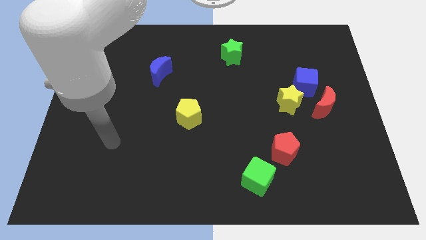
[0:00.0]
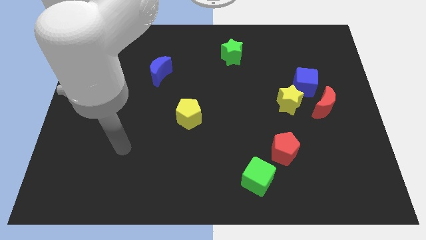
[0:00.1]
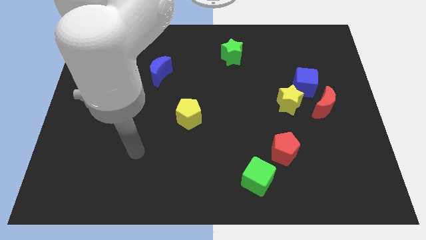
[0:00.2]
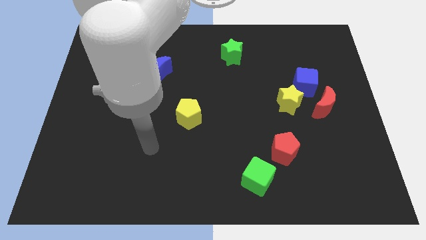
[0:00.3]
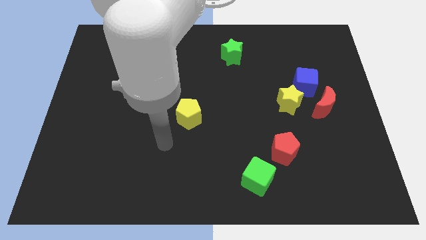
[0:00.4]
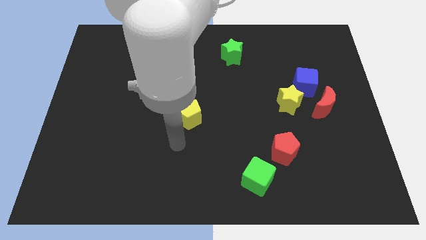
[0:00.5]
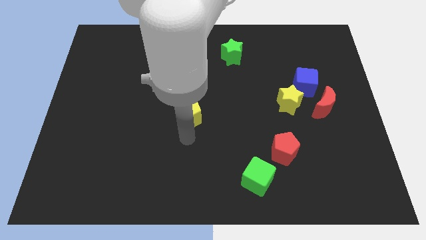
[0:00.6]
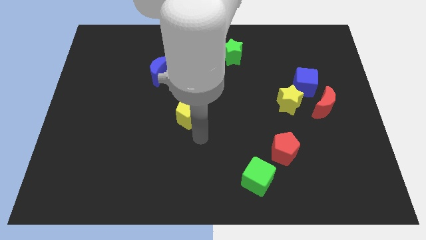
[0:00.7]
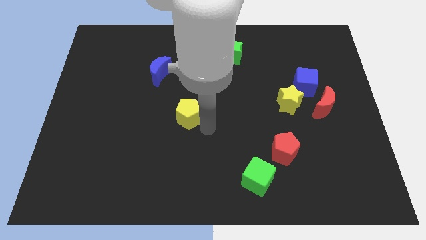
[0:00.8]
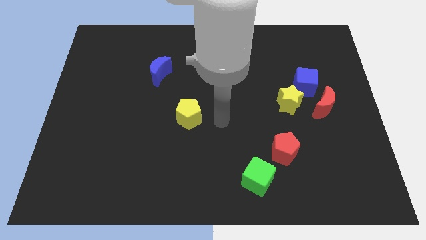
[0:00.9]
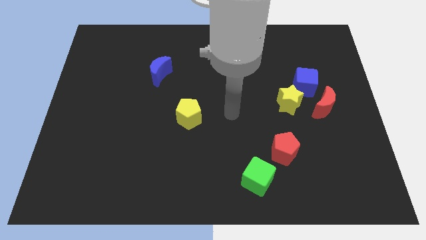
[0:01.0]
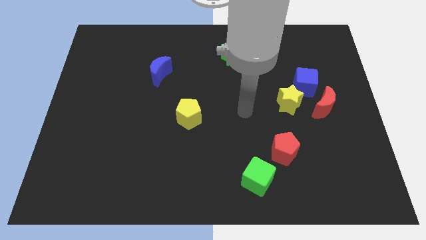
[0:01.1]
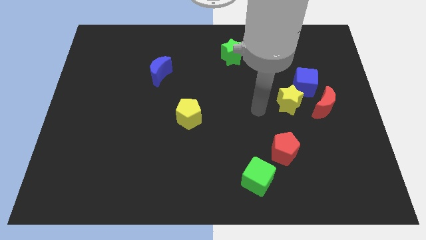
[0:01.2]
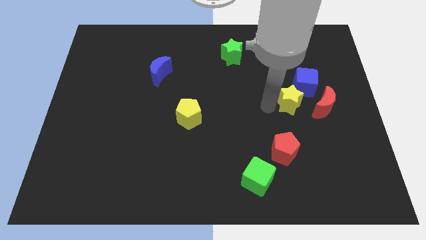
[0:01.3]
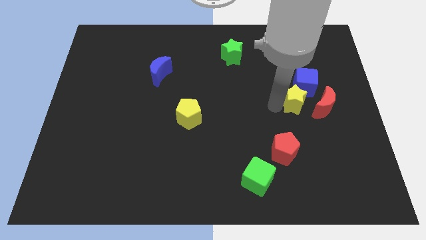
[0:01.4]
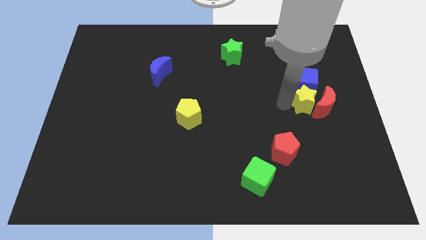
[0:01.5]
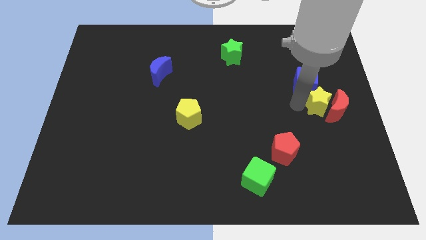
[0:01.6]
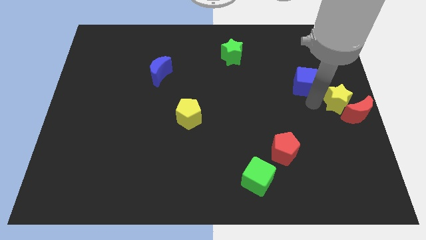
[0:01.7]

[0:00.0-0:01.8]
separate the blue cube from the yellow star and red moon

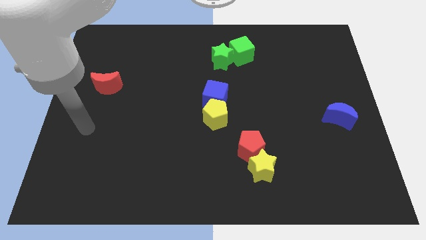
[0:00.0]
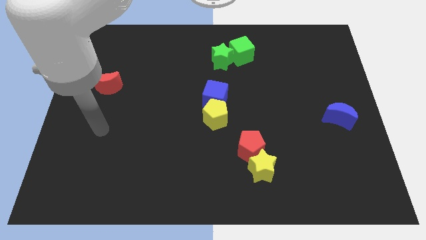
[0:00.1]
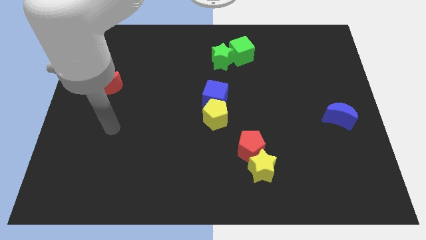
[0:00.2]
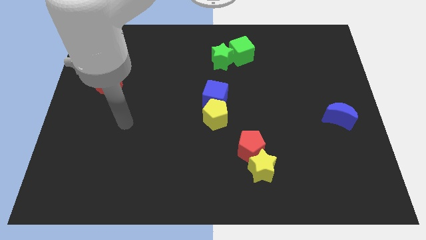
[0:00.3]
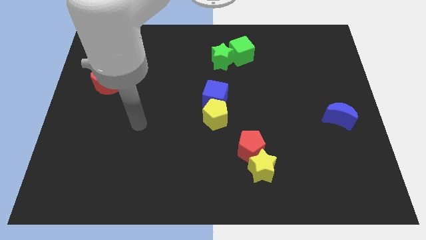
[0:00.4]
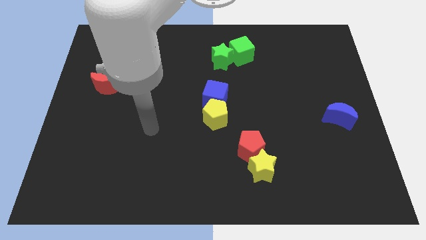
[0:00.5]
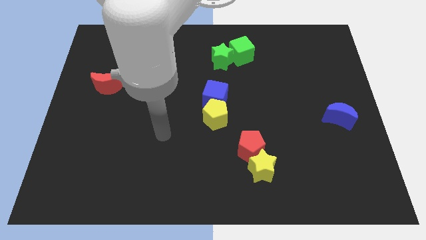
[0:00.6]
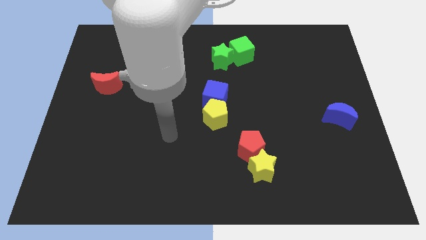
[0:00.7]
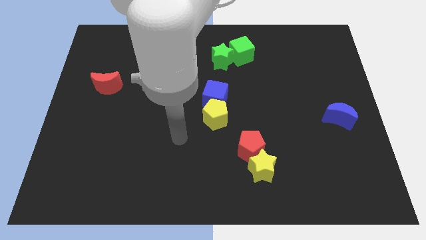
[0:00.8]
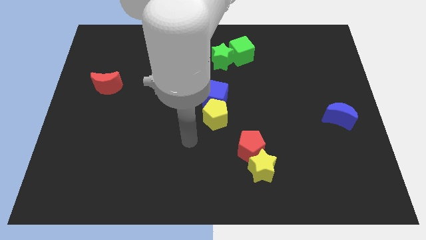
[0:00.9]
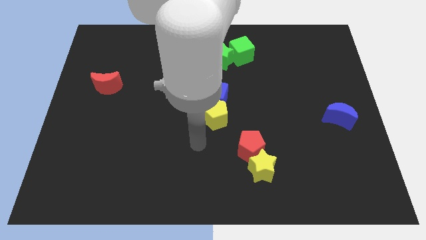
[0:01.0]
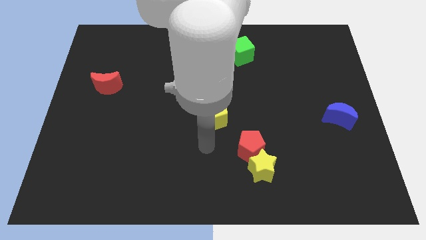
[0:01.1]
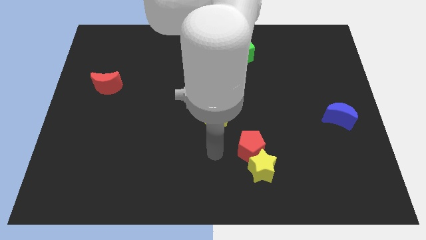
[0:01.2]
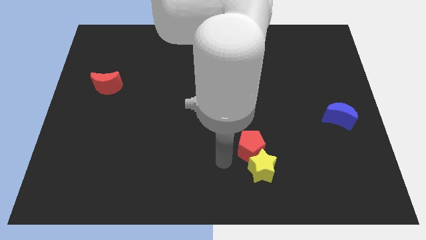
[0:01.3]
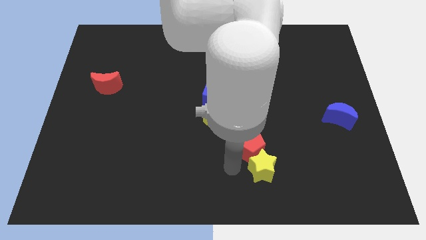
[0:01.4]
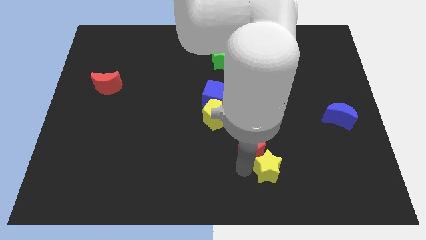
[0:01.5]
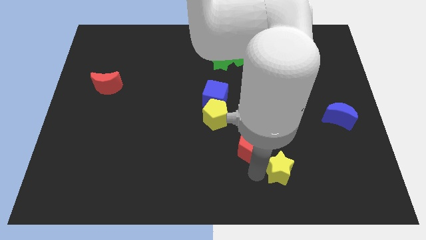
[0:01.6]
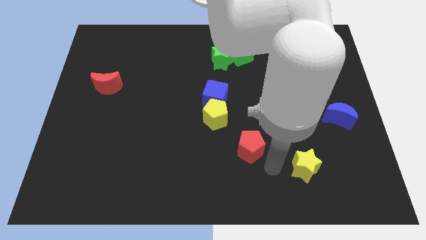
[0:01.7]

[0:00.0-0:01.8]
move the red pentagon away from the yellow star

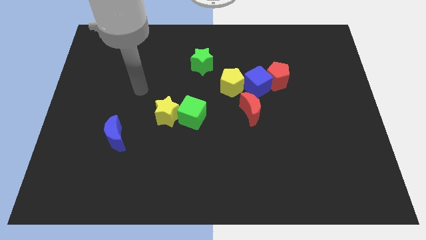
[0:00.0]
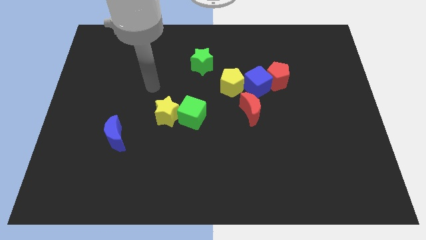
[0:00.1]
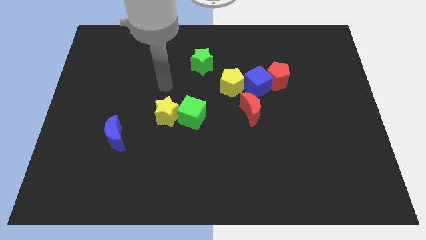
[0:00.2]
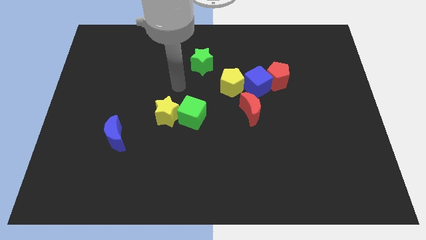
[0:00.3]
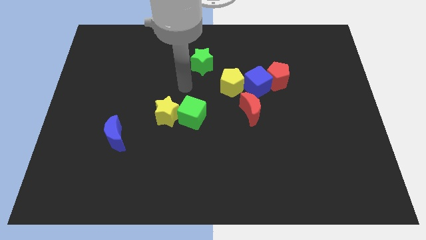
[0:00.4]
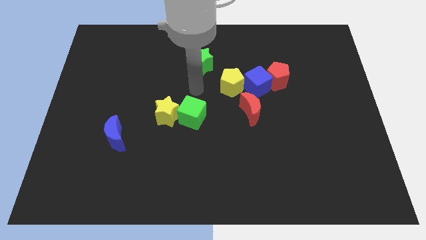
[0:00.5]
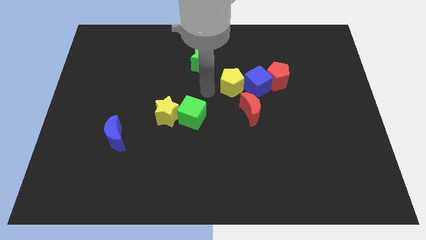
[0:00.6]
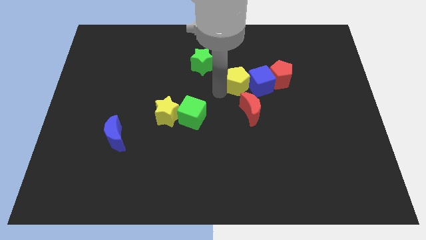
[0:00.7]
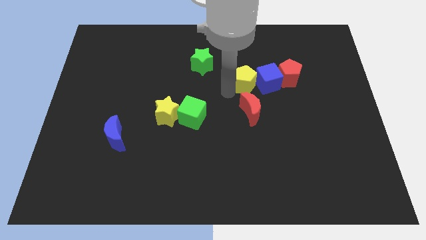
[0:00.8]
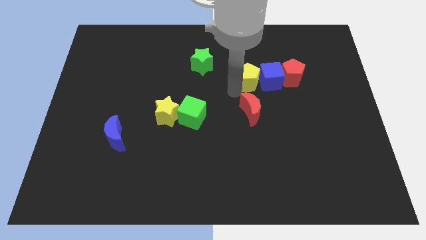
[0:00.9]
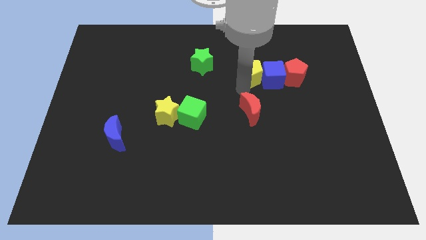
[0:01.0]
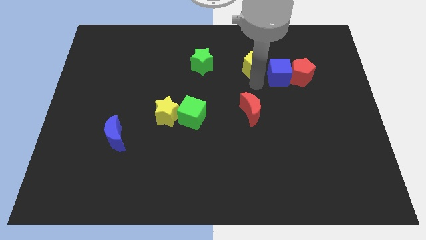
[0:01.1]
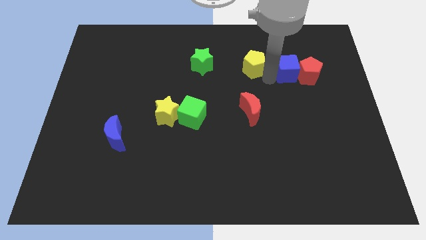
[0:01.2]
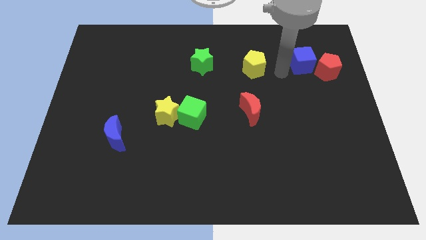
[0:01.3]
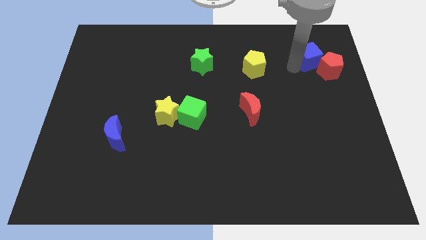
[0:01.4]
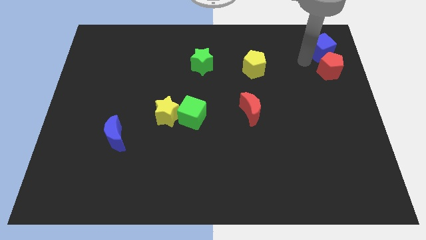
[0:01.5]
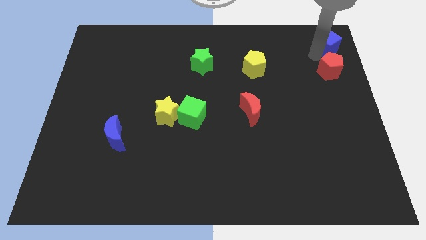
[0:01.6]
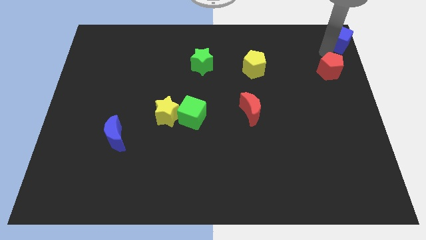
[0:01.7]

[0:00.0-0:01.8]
pull the red pentagon apart from the blue cube

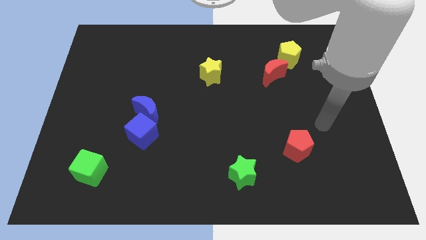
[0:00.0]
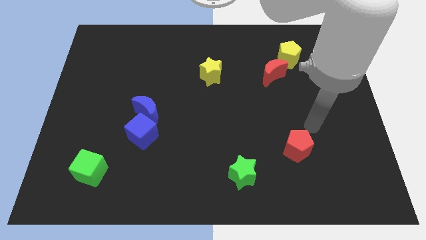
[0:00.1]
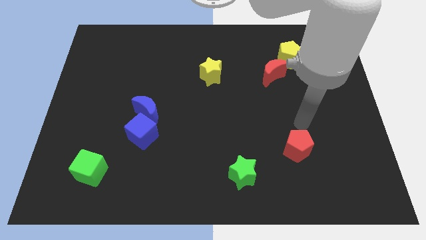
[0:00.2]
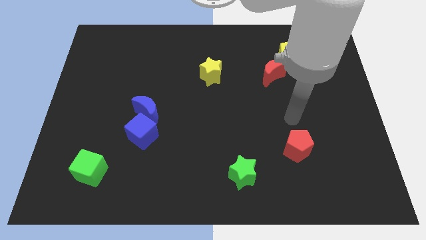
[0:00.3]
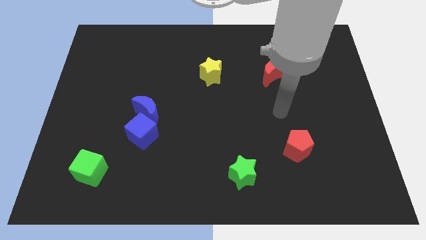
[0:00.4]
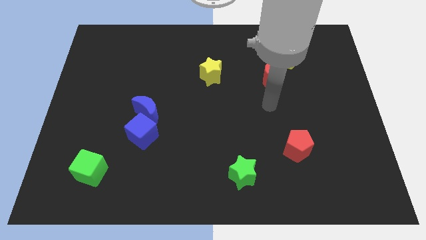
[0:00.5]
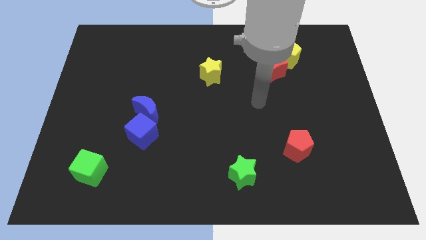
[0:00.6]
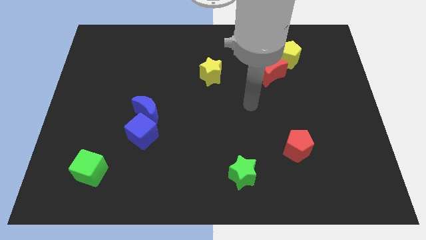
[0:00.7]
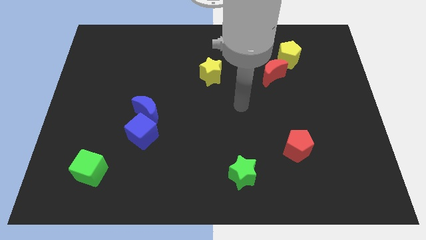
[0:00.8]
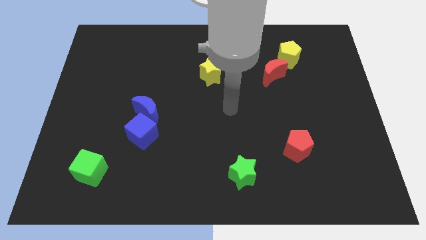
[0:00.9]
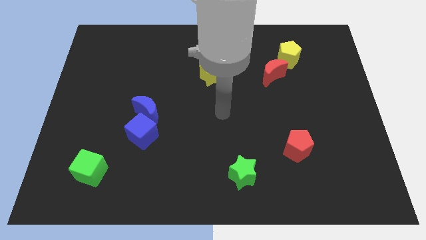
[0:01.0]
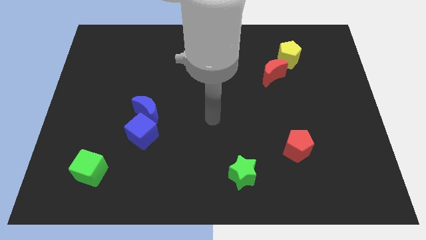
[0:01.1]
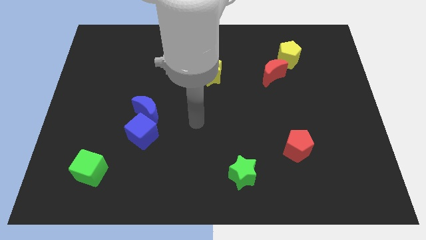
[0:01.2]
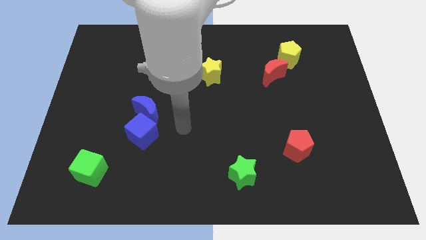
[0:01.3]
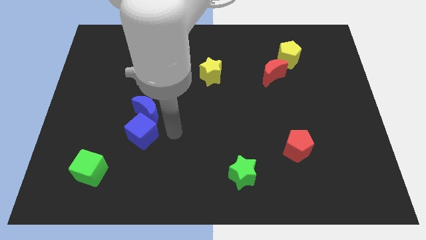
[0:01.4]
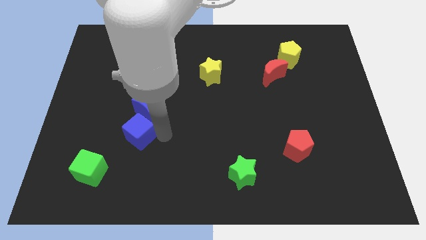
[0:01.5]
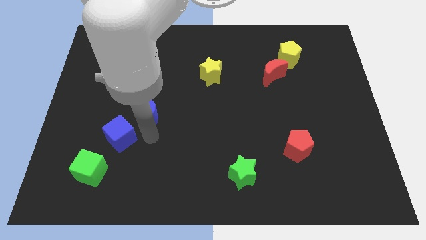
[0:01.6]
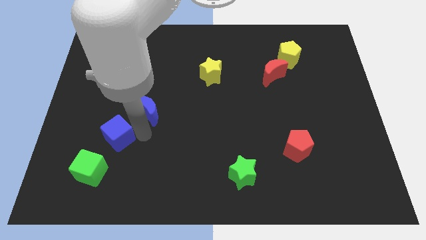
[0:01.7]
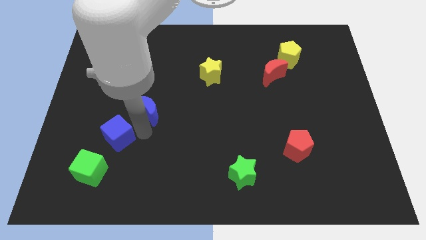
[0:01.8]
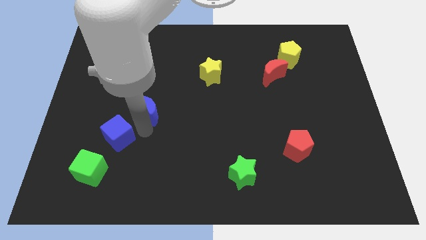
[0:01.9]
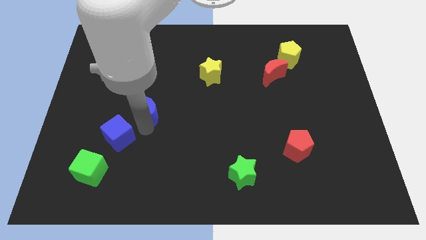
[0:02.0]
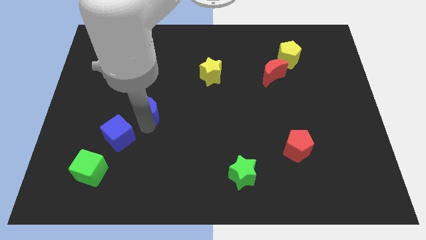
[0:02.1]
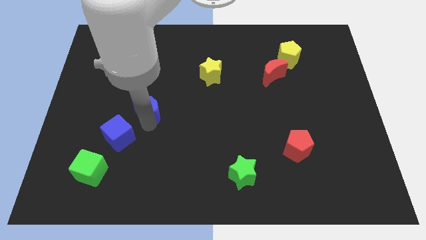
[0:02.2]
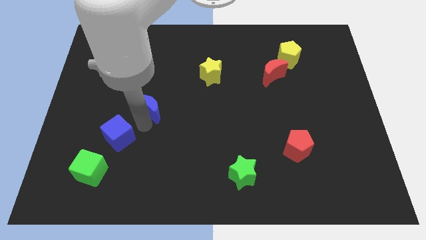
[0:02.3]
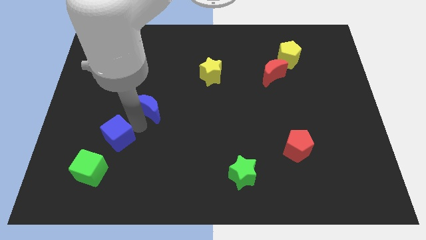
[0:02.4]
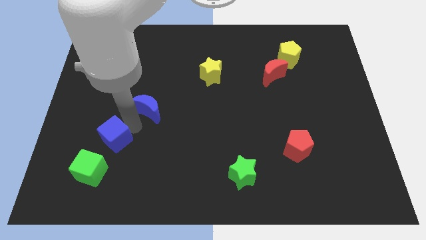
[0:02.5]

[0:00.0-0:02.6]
separate the blue moon from the blue cube

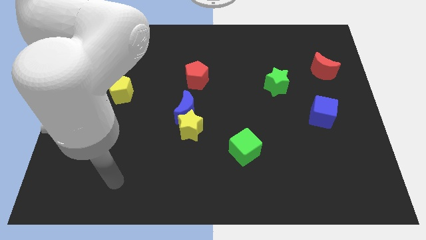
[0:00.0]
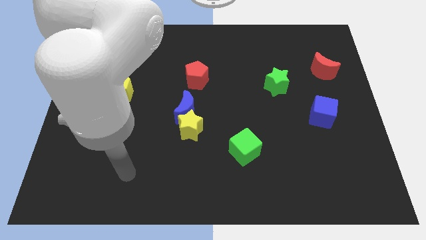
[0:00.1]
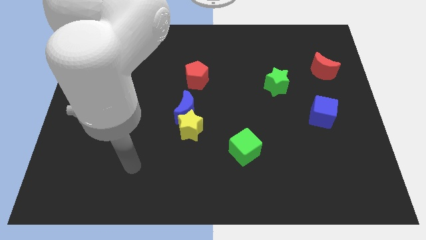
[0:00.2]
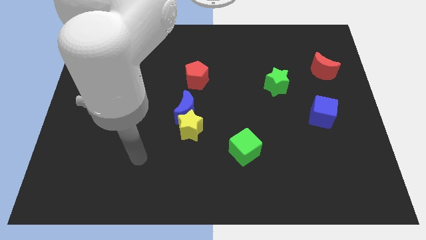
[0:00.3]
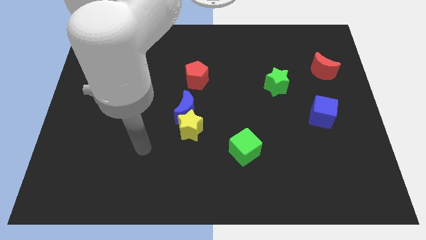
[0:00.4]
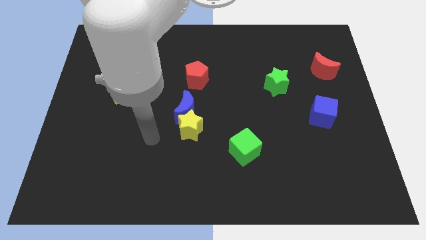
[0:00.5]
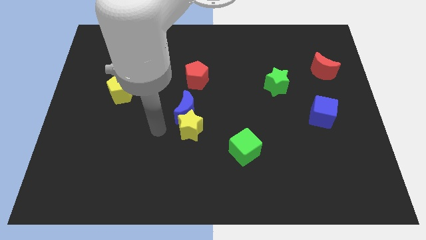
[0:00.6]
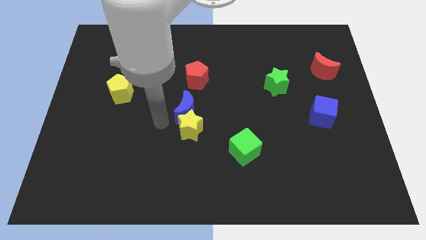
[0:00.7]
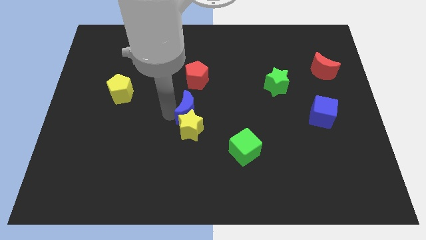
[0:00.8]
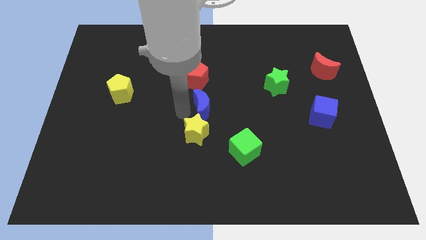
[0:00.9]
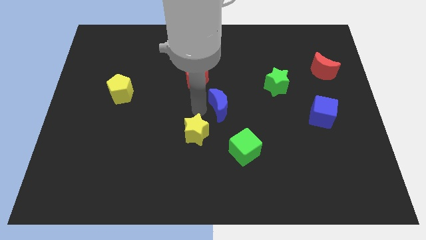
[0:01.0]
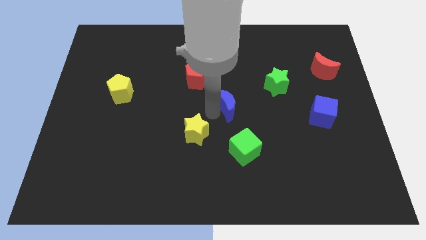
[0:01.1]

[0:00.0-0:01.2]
move the yellow star away from the blue moon
